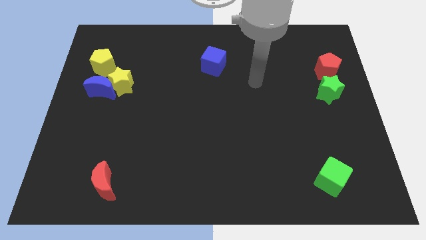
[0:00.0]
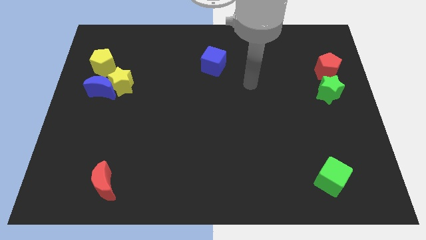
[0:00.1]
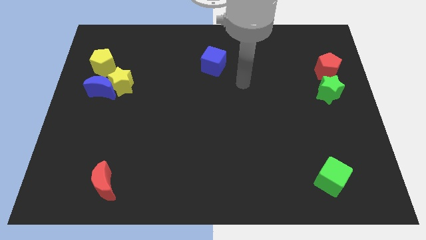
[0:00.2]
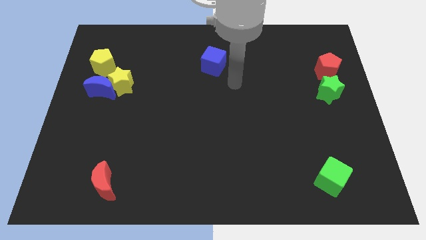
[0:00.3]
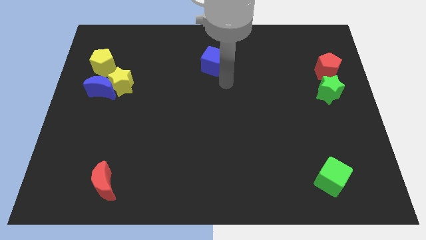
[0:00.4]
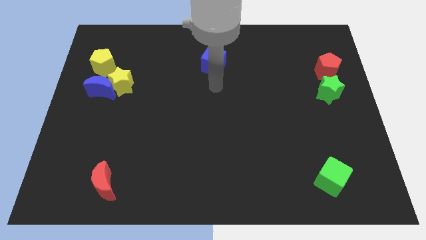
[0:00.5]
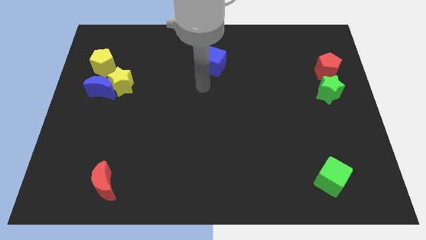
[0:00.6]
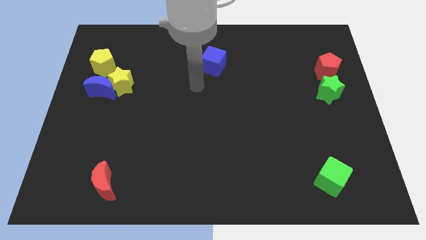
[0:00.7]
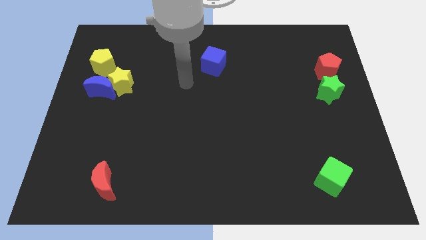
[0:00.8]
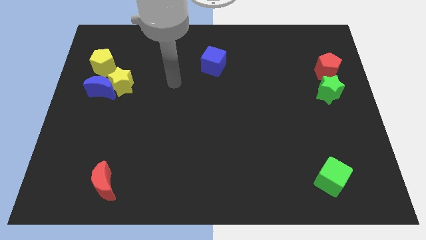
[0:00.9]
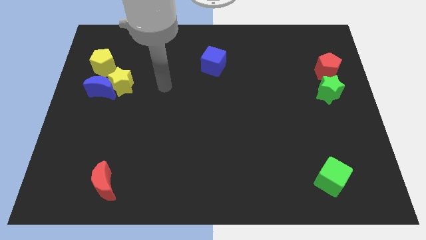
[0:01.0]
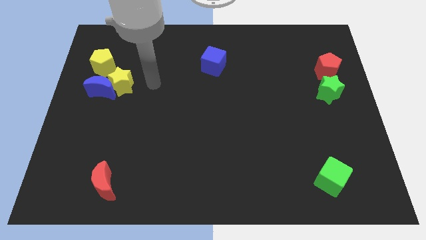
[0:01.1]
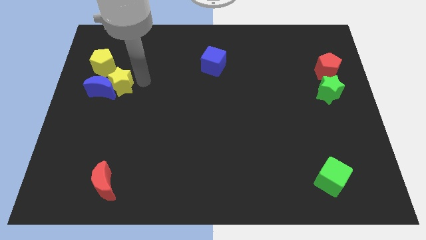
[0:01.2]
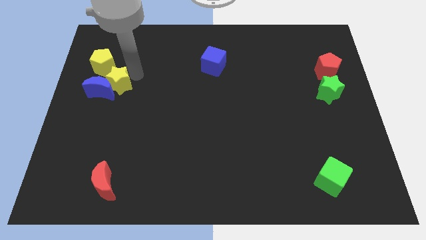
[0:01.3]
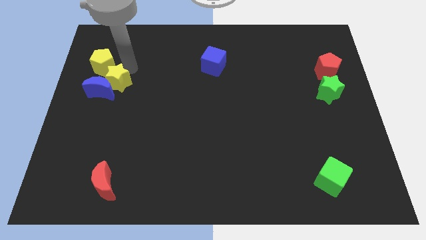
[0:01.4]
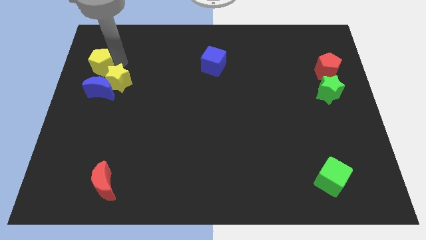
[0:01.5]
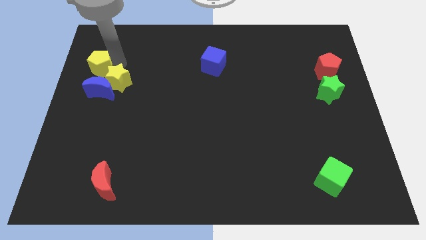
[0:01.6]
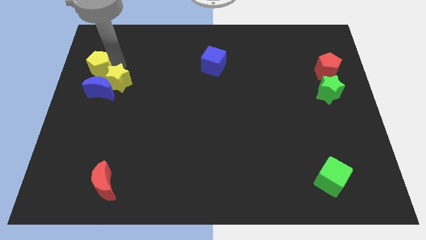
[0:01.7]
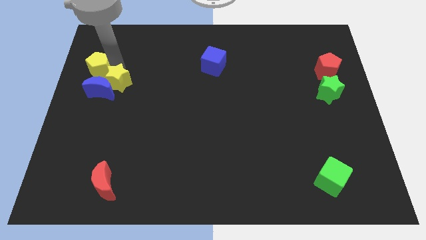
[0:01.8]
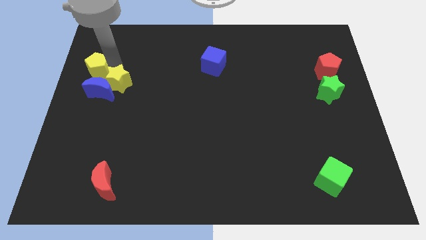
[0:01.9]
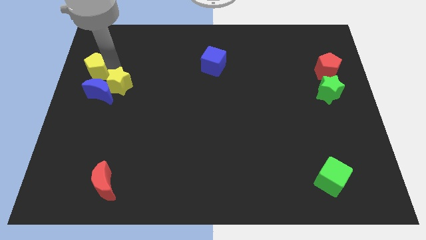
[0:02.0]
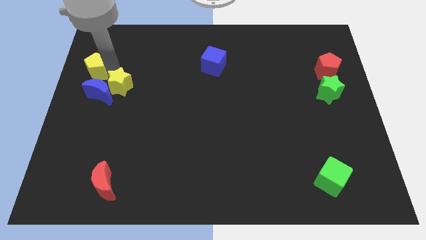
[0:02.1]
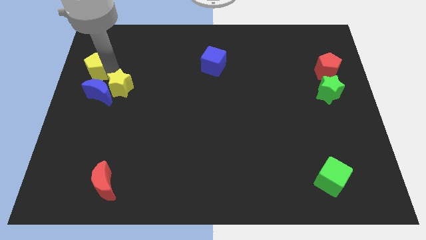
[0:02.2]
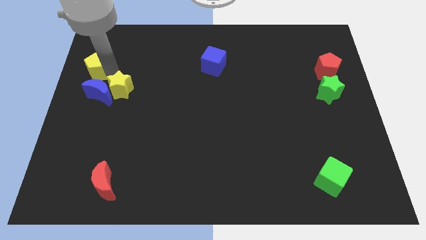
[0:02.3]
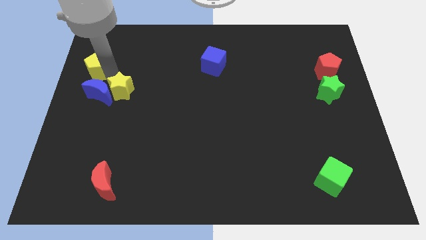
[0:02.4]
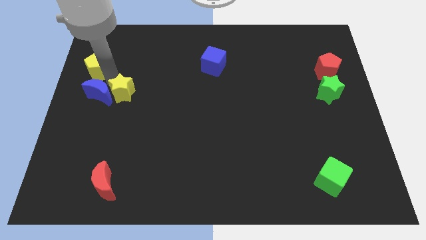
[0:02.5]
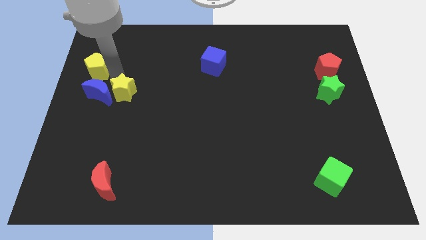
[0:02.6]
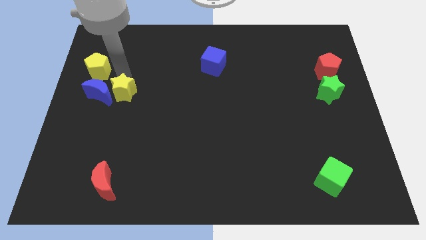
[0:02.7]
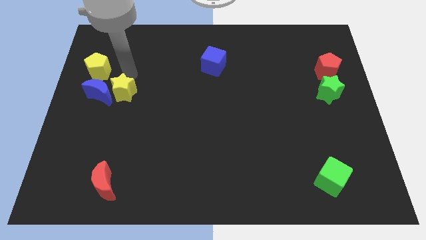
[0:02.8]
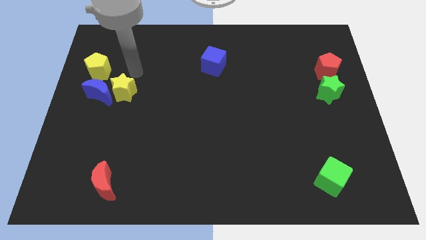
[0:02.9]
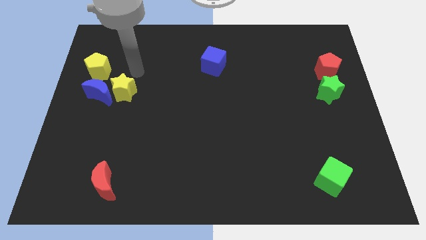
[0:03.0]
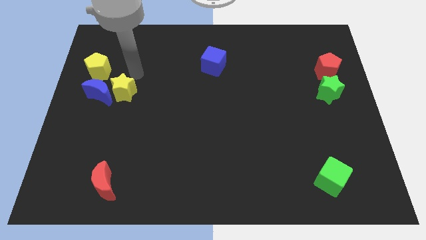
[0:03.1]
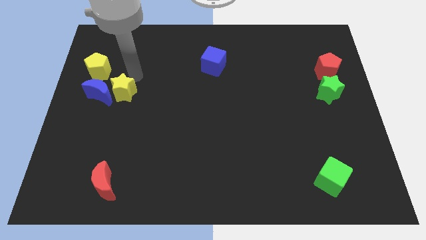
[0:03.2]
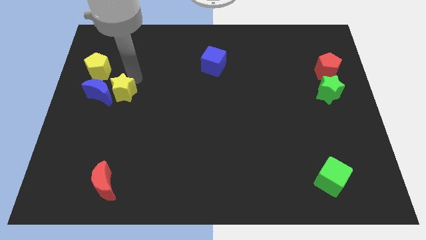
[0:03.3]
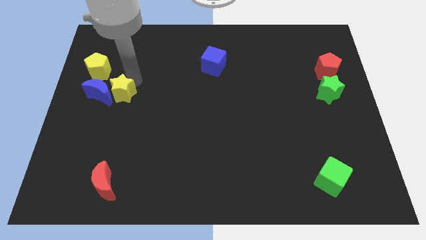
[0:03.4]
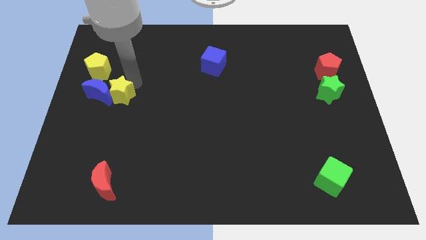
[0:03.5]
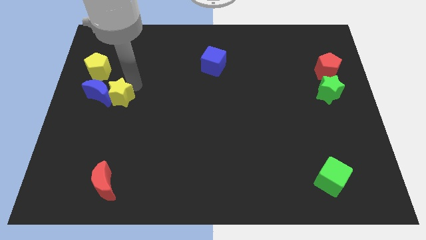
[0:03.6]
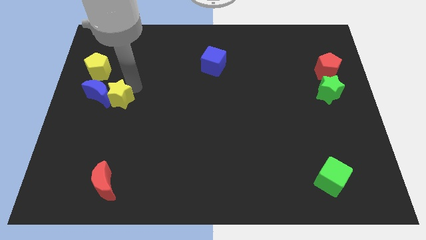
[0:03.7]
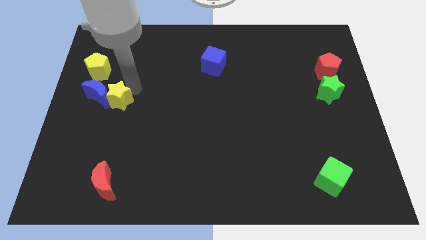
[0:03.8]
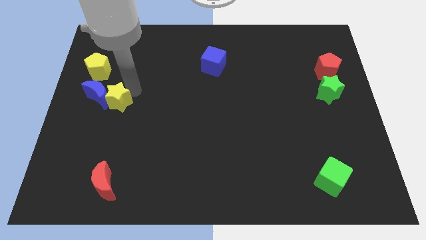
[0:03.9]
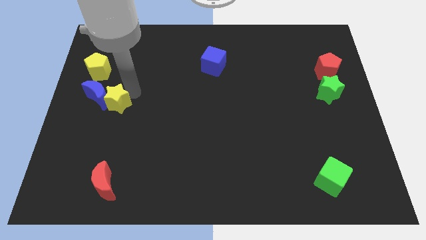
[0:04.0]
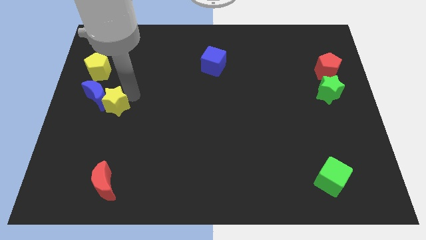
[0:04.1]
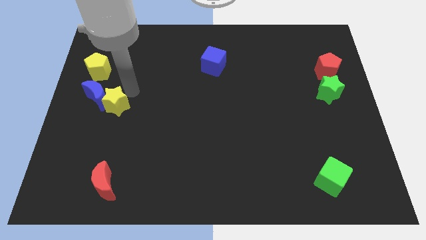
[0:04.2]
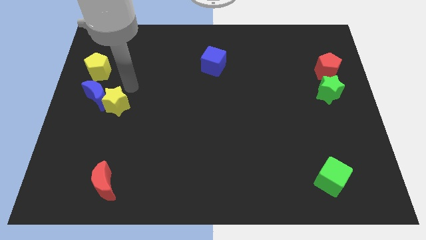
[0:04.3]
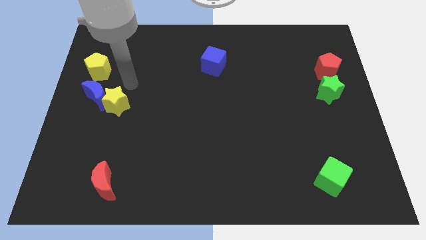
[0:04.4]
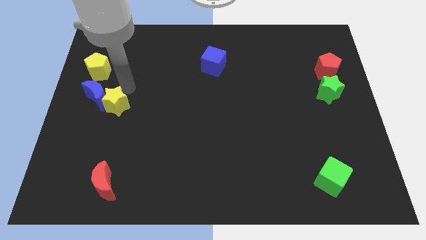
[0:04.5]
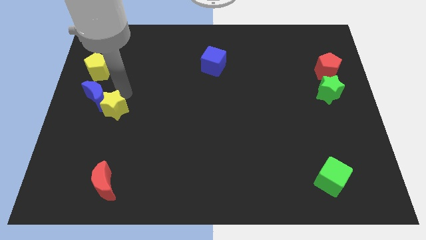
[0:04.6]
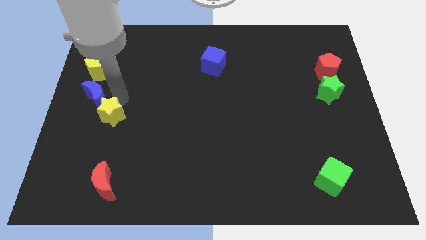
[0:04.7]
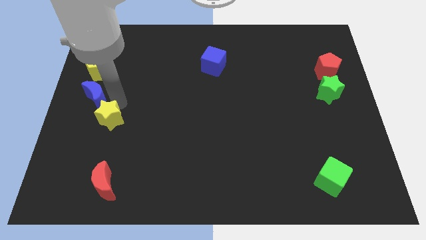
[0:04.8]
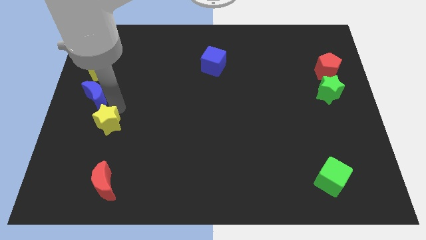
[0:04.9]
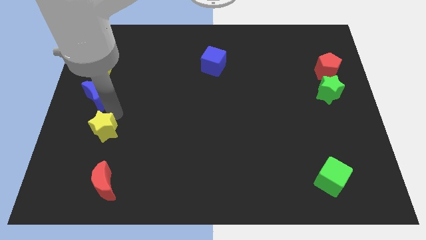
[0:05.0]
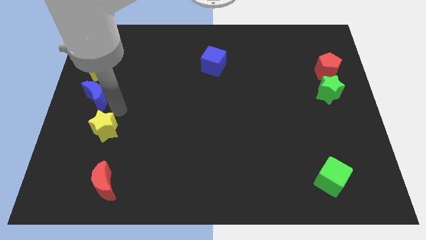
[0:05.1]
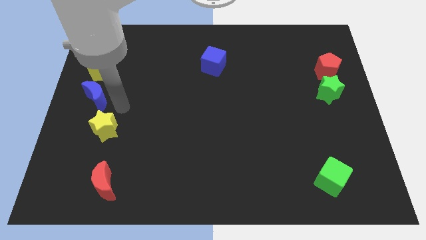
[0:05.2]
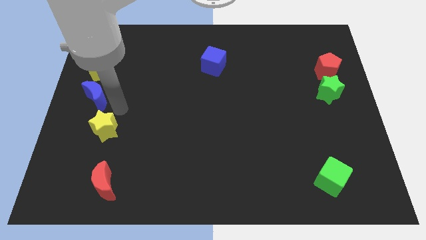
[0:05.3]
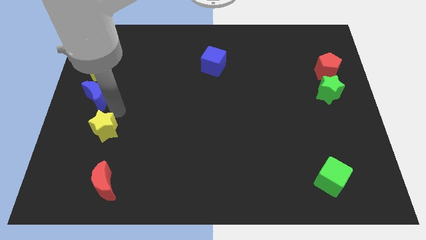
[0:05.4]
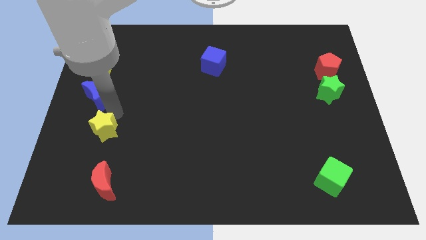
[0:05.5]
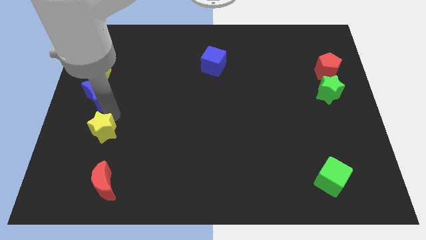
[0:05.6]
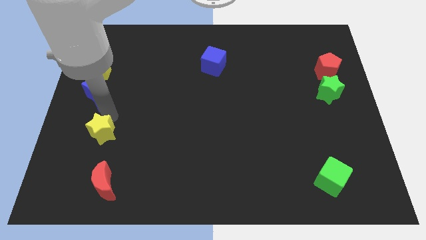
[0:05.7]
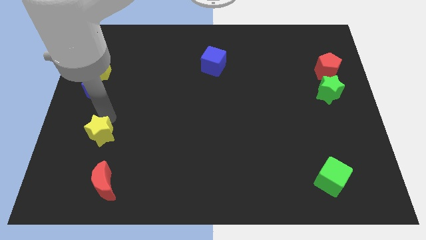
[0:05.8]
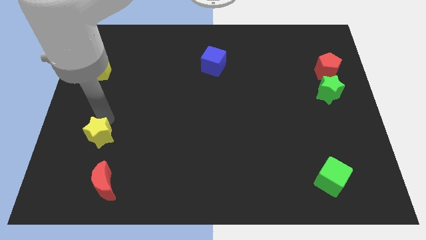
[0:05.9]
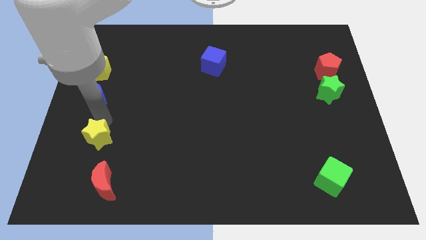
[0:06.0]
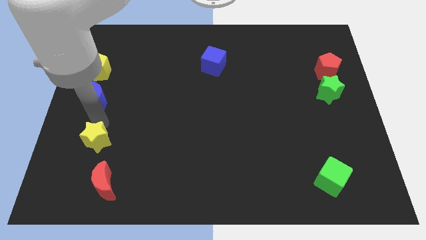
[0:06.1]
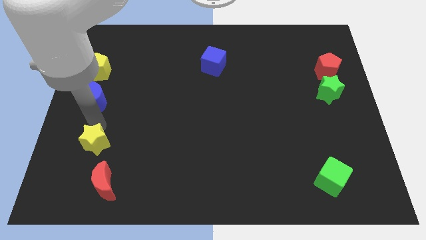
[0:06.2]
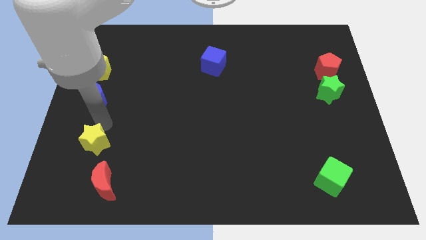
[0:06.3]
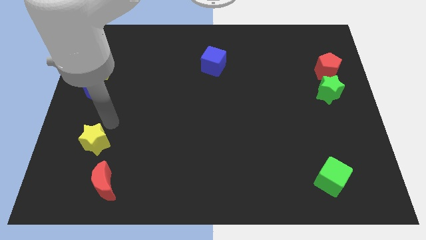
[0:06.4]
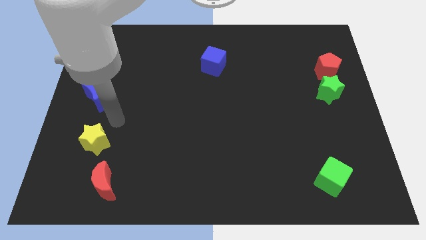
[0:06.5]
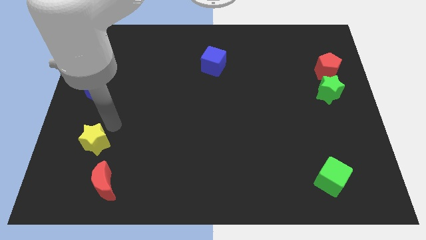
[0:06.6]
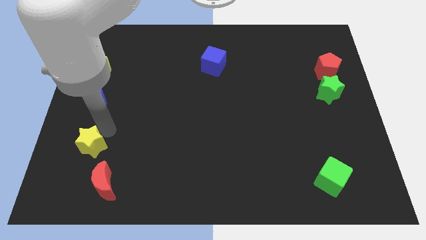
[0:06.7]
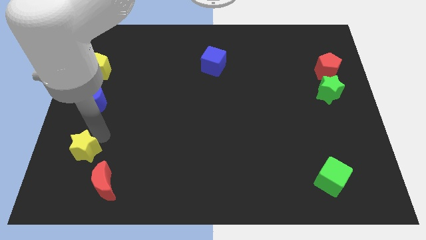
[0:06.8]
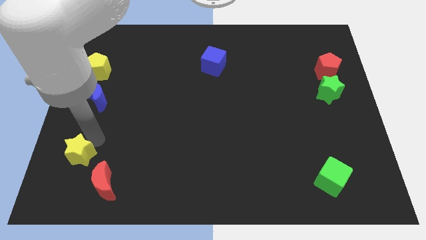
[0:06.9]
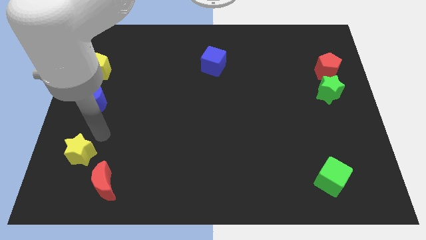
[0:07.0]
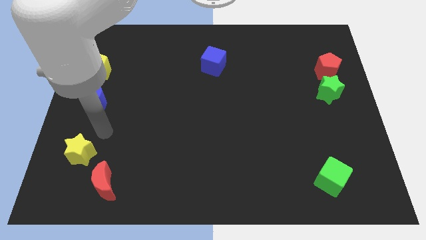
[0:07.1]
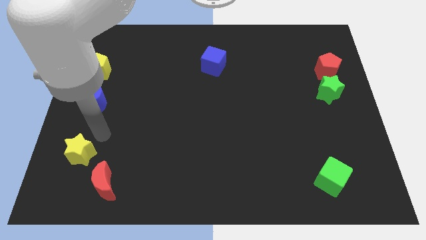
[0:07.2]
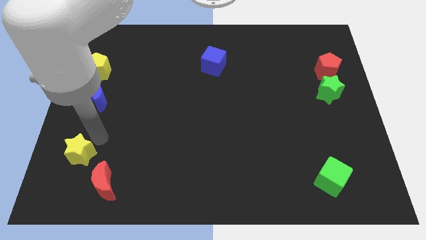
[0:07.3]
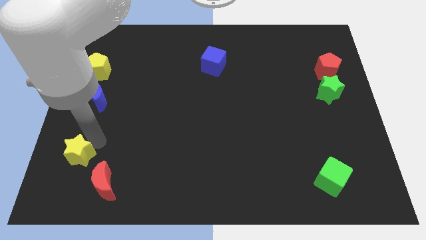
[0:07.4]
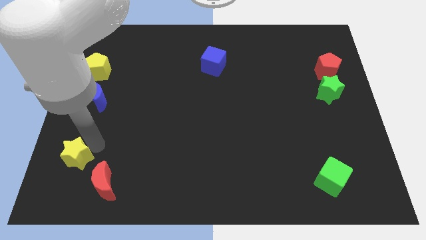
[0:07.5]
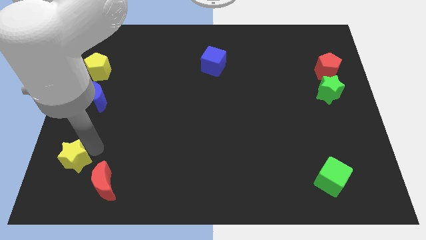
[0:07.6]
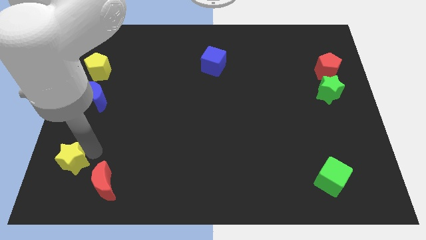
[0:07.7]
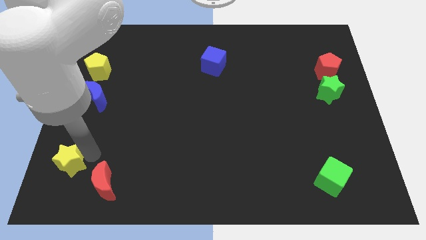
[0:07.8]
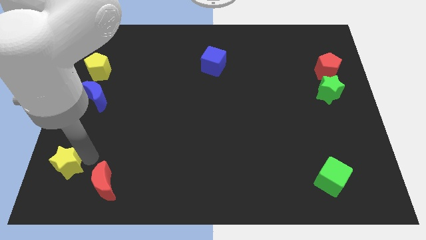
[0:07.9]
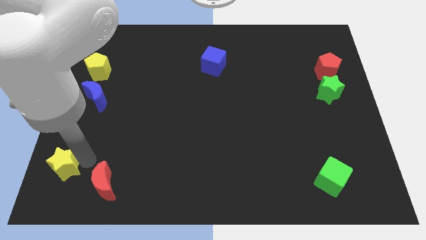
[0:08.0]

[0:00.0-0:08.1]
slide the yellow star to the bottom left of the board
